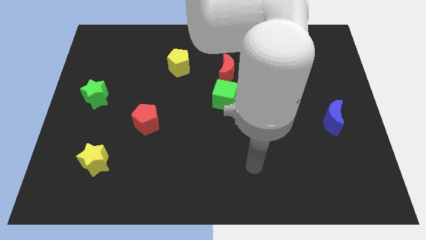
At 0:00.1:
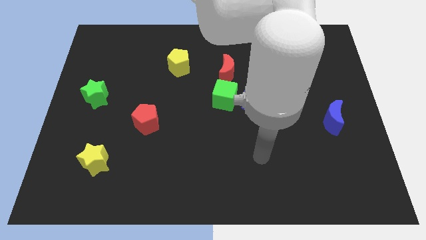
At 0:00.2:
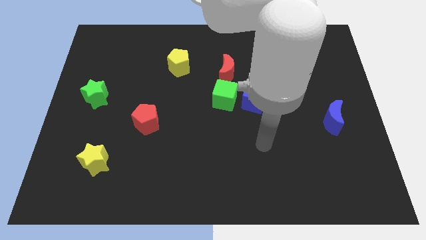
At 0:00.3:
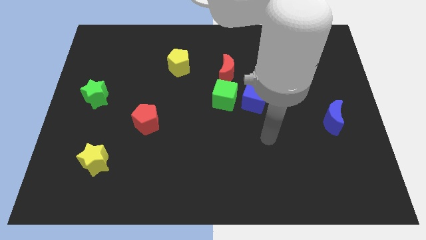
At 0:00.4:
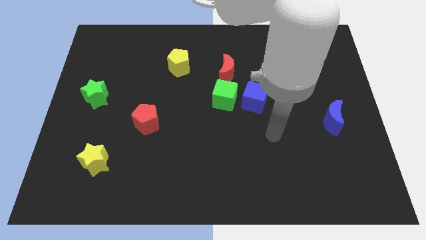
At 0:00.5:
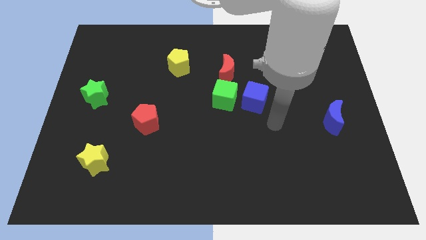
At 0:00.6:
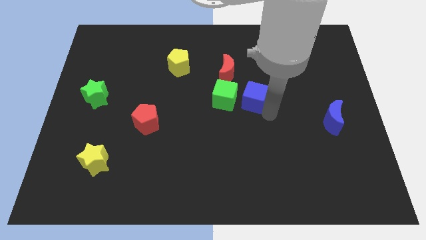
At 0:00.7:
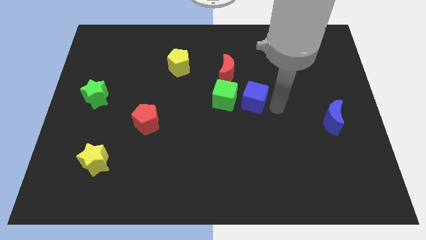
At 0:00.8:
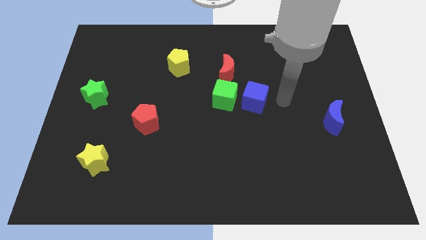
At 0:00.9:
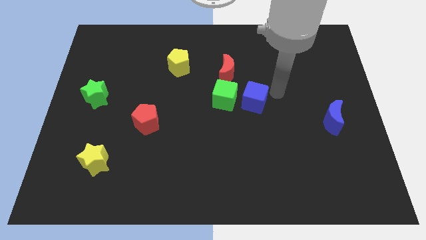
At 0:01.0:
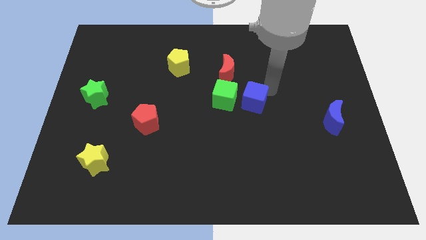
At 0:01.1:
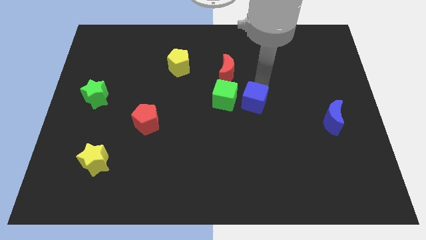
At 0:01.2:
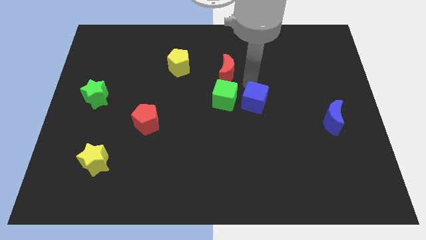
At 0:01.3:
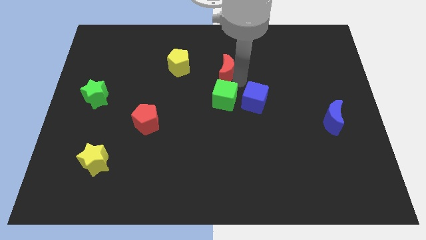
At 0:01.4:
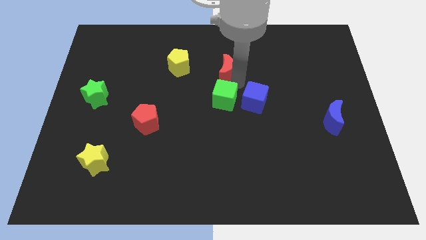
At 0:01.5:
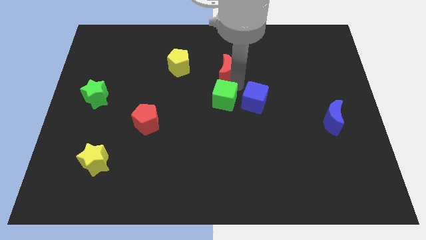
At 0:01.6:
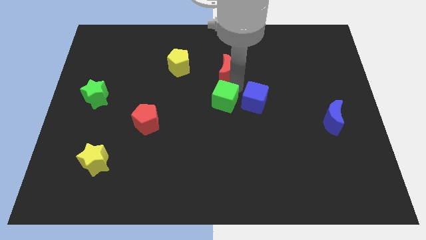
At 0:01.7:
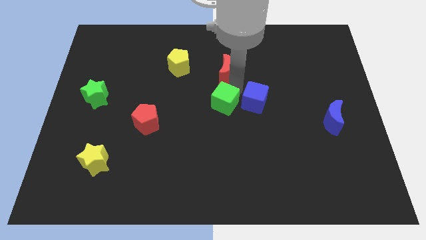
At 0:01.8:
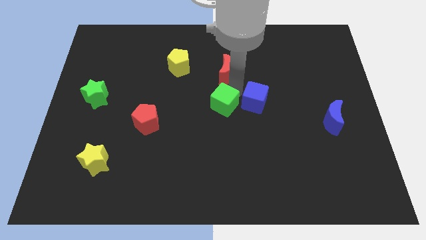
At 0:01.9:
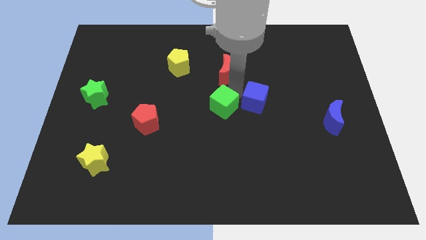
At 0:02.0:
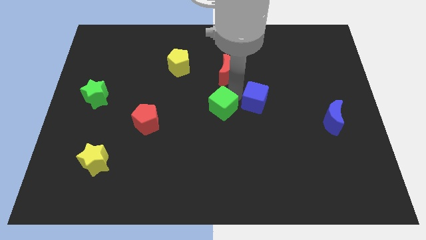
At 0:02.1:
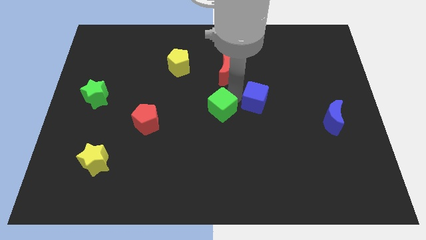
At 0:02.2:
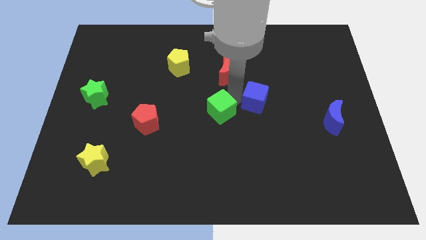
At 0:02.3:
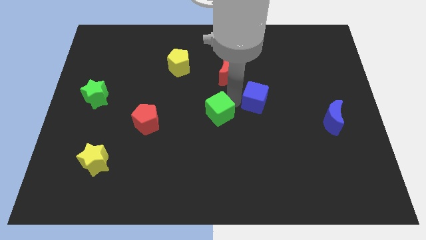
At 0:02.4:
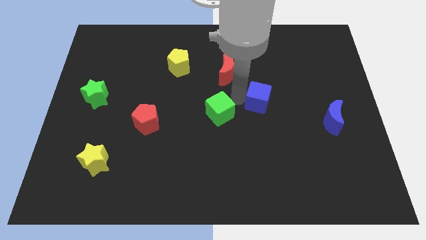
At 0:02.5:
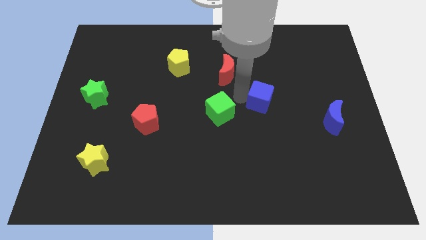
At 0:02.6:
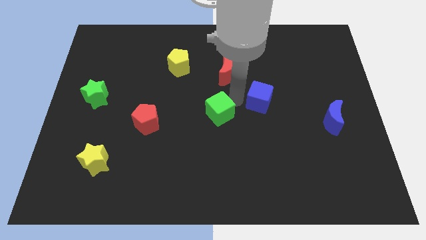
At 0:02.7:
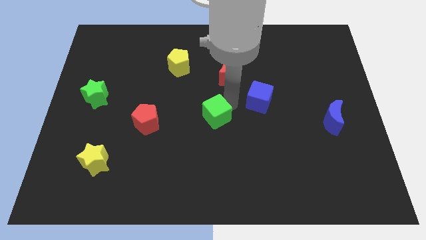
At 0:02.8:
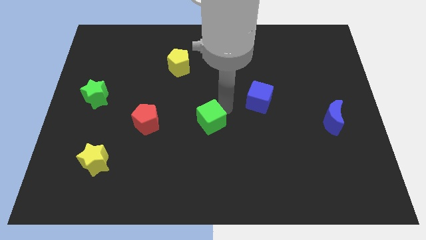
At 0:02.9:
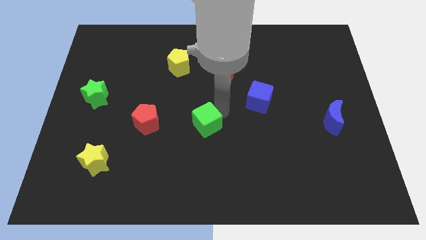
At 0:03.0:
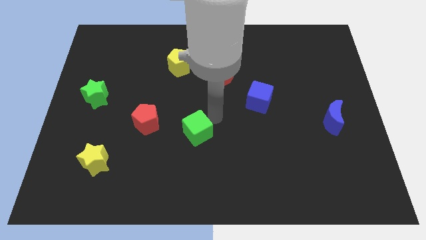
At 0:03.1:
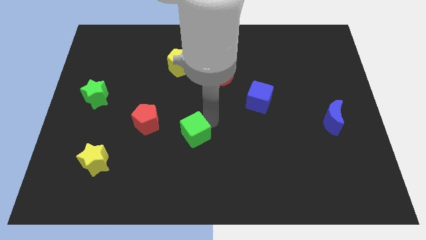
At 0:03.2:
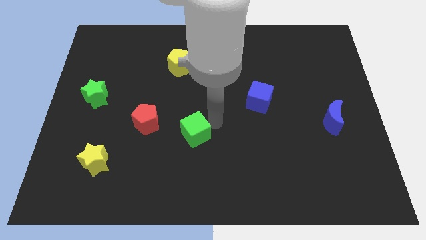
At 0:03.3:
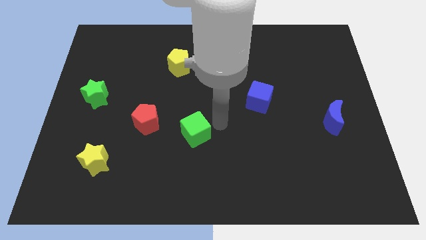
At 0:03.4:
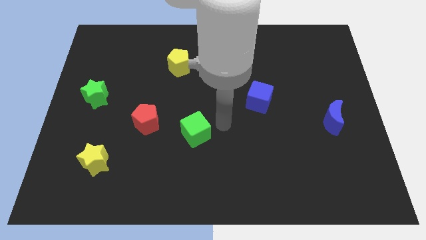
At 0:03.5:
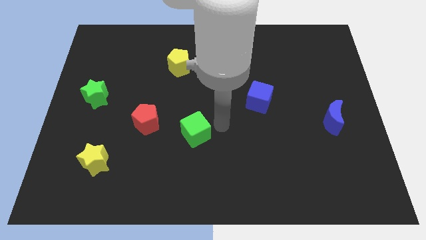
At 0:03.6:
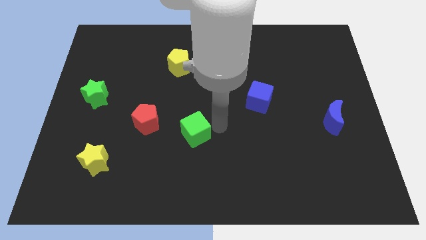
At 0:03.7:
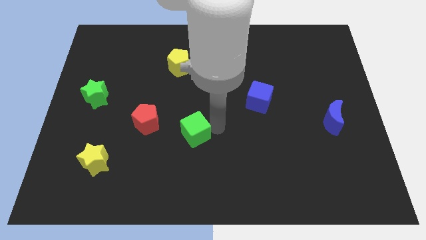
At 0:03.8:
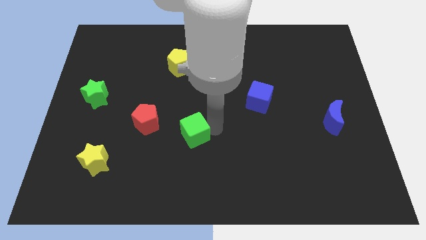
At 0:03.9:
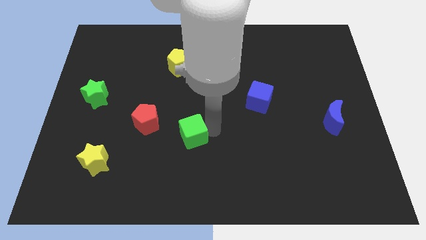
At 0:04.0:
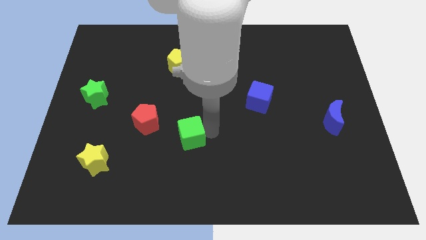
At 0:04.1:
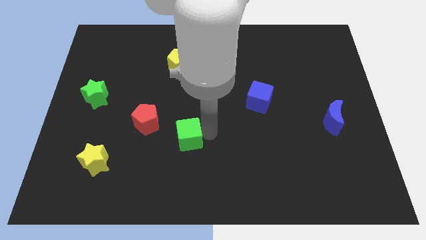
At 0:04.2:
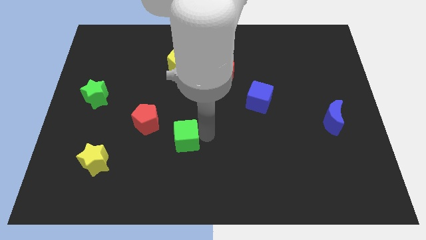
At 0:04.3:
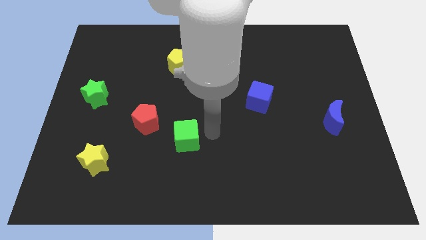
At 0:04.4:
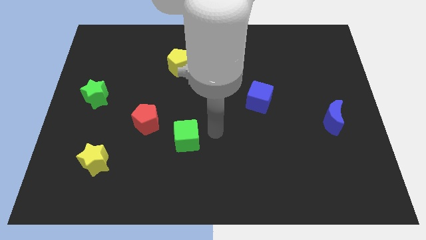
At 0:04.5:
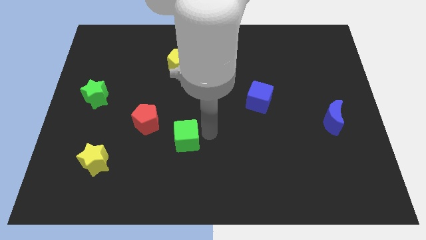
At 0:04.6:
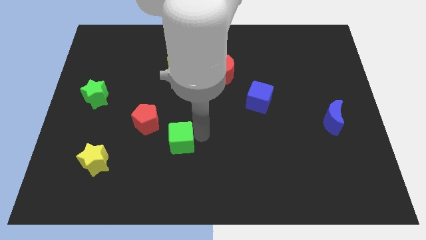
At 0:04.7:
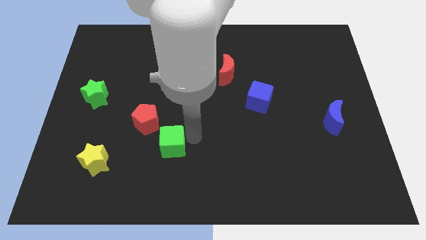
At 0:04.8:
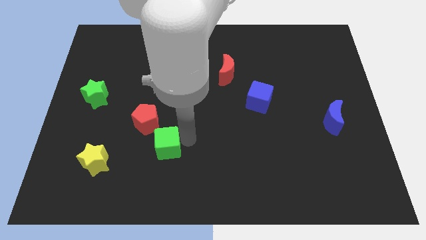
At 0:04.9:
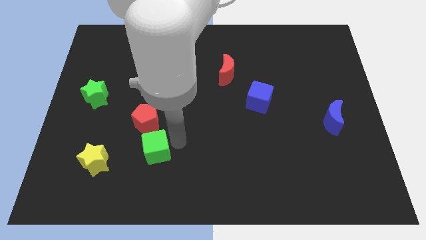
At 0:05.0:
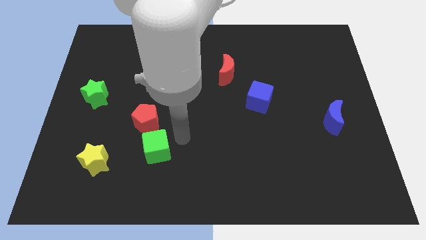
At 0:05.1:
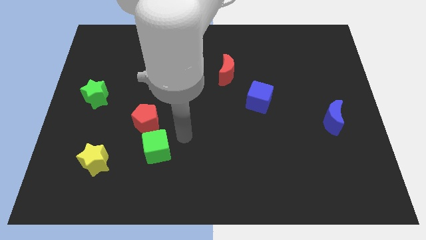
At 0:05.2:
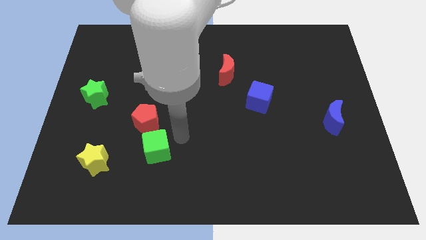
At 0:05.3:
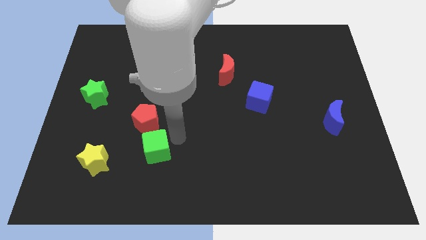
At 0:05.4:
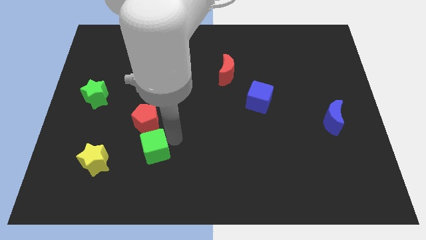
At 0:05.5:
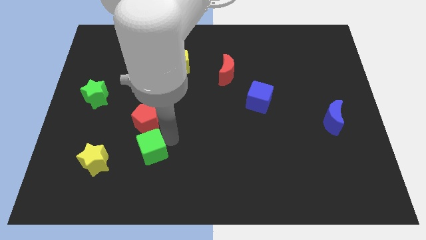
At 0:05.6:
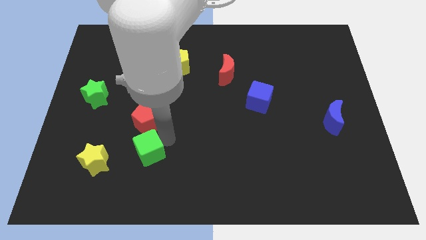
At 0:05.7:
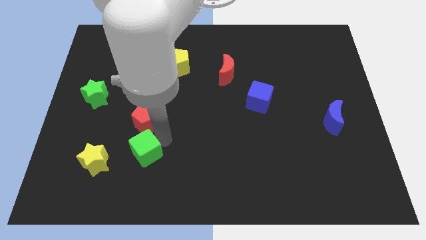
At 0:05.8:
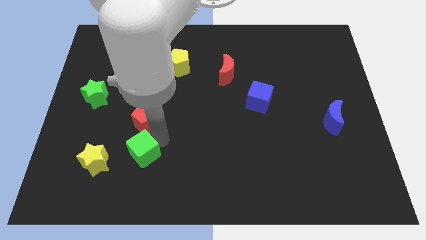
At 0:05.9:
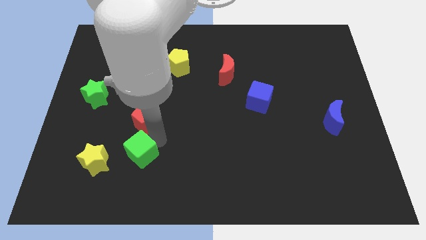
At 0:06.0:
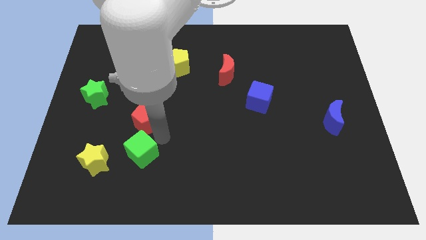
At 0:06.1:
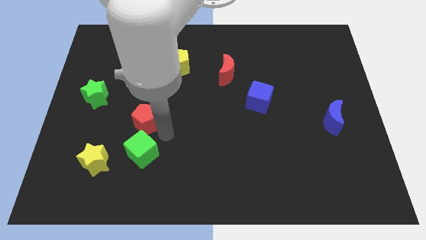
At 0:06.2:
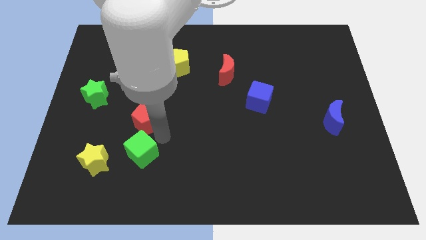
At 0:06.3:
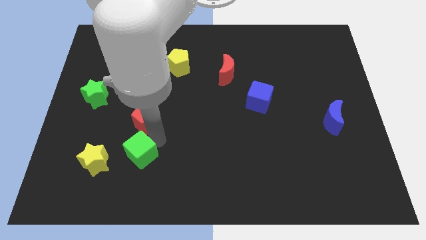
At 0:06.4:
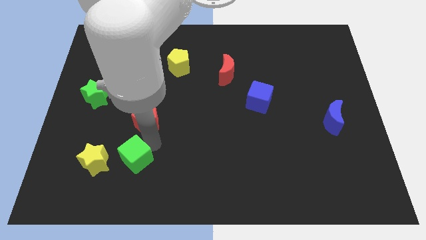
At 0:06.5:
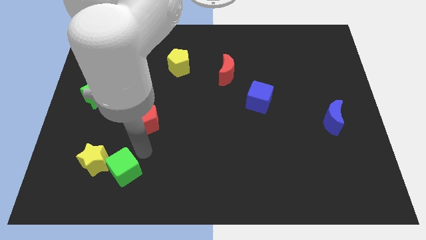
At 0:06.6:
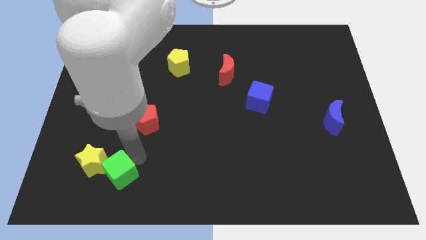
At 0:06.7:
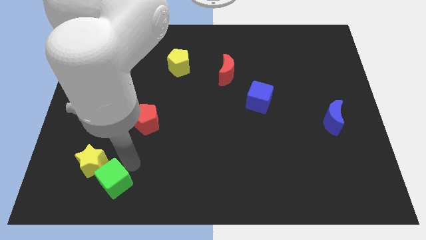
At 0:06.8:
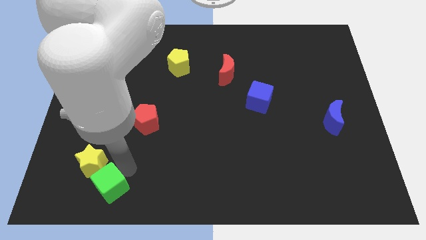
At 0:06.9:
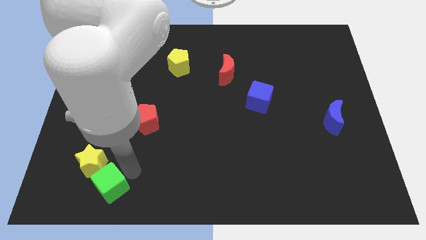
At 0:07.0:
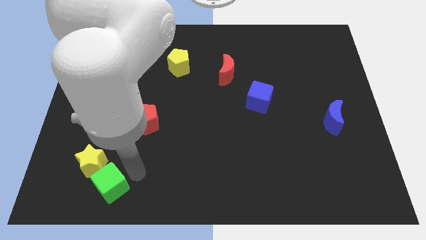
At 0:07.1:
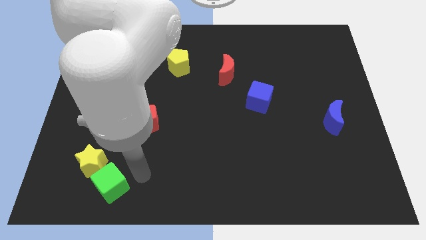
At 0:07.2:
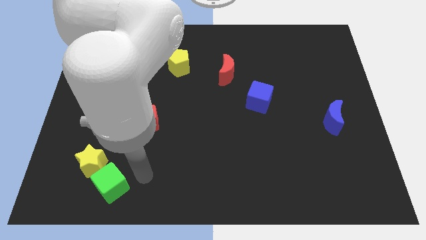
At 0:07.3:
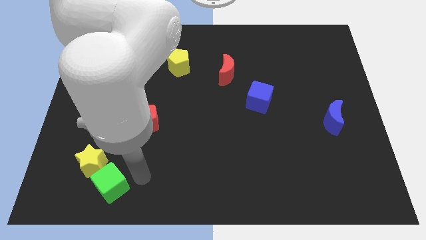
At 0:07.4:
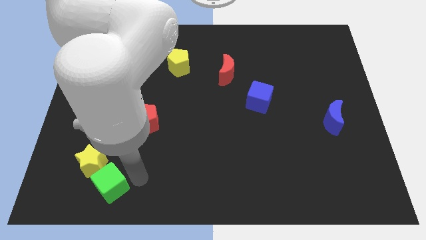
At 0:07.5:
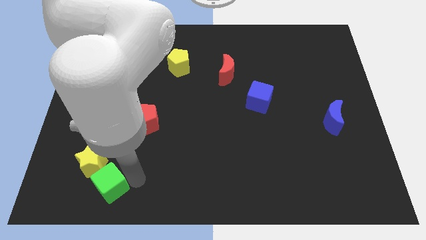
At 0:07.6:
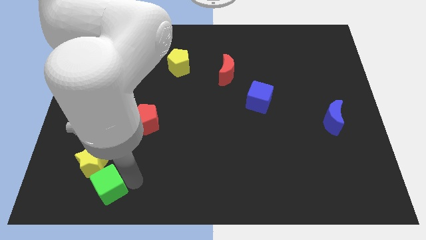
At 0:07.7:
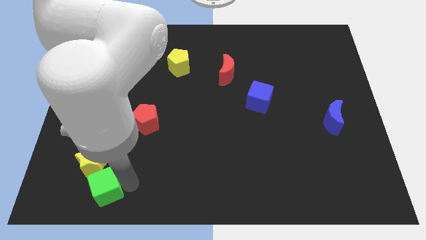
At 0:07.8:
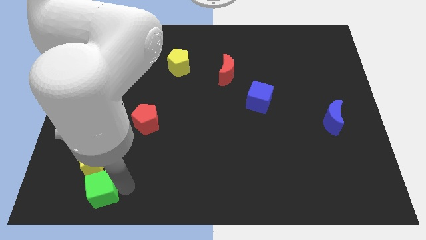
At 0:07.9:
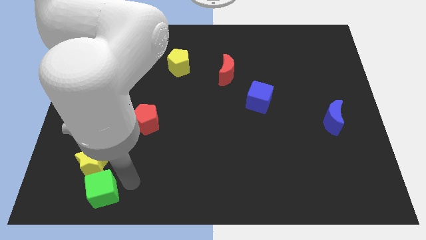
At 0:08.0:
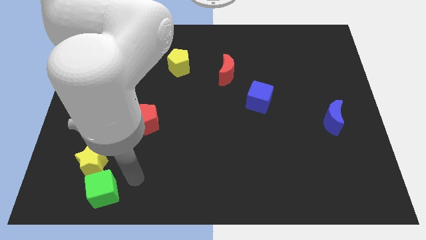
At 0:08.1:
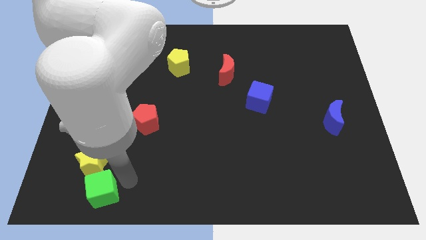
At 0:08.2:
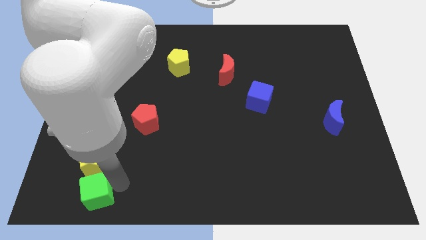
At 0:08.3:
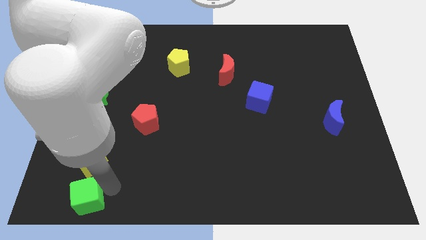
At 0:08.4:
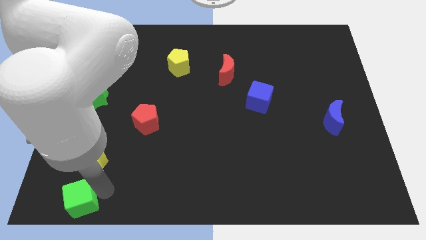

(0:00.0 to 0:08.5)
put the green cube to the bottom left corner
